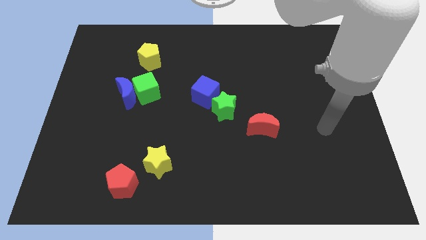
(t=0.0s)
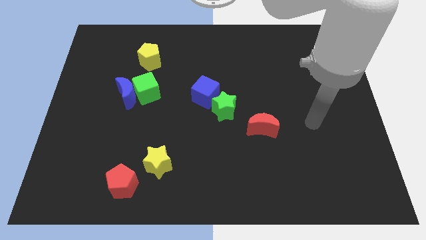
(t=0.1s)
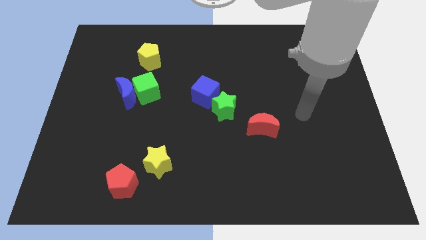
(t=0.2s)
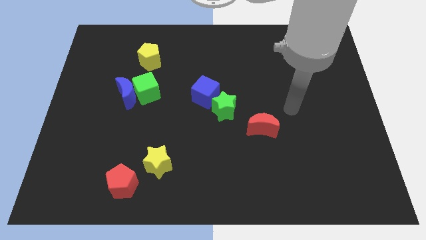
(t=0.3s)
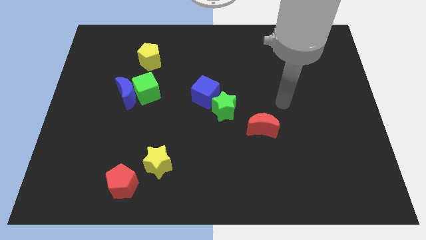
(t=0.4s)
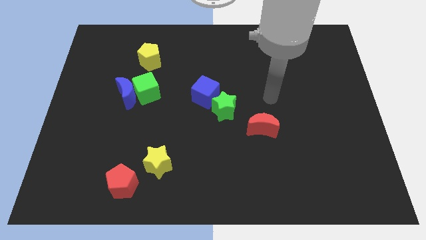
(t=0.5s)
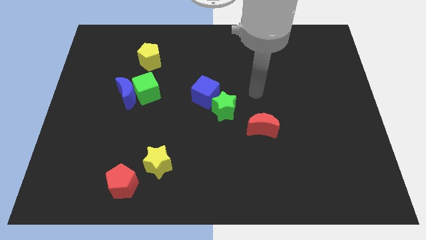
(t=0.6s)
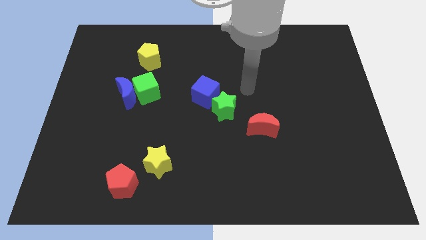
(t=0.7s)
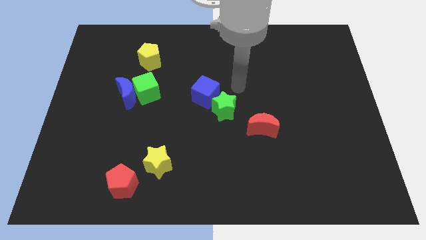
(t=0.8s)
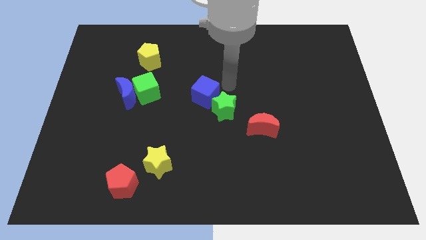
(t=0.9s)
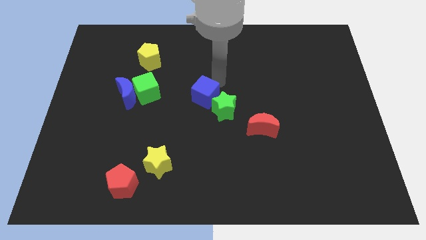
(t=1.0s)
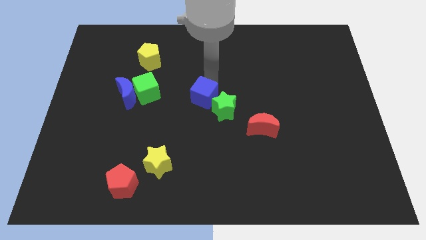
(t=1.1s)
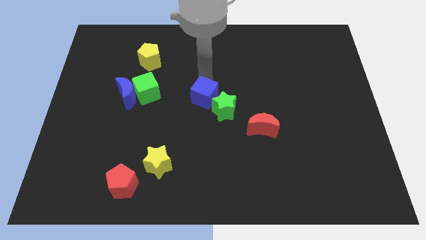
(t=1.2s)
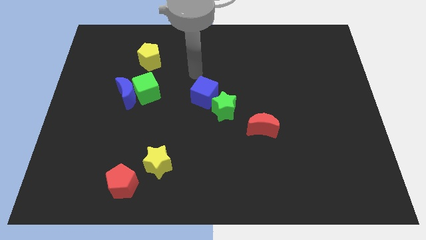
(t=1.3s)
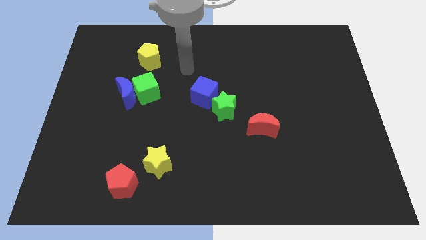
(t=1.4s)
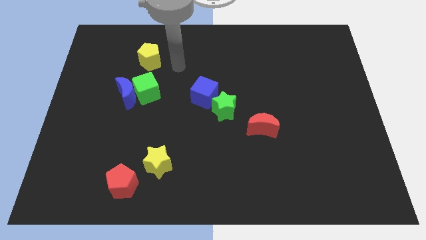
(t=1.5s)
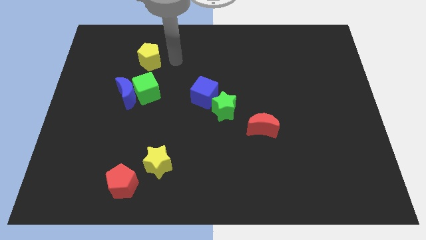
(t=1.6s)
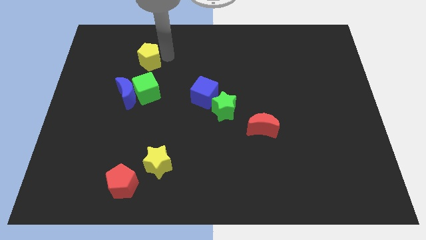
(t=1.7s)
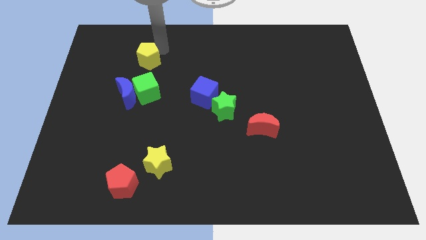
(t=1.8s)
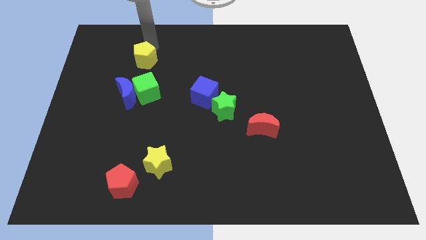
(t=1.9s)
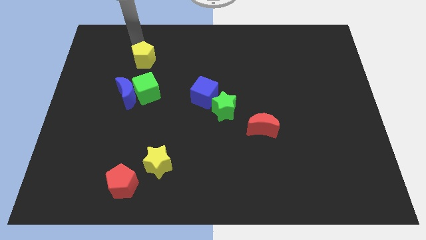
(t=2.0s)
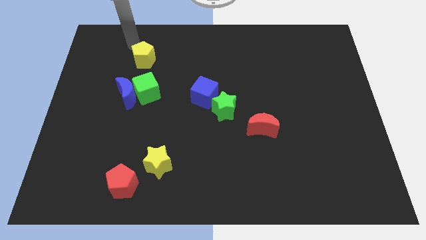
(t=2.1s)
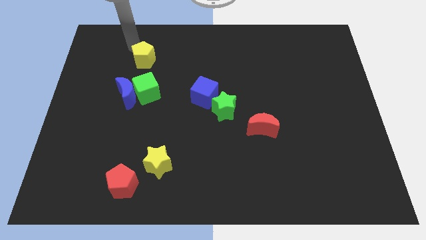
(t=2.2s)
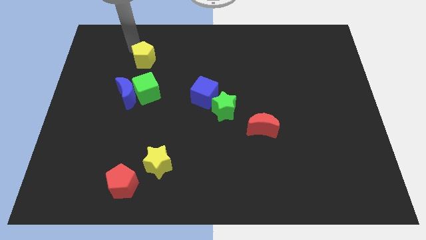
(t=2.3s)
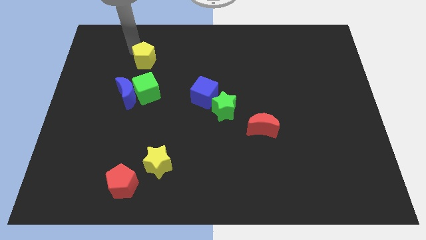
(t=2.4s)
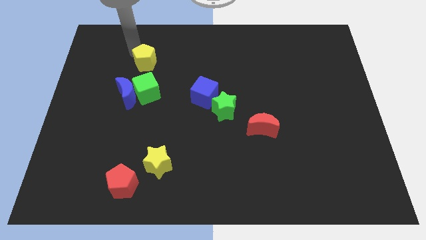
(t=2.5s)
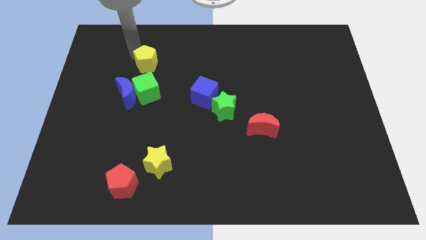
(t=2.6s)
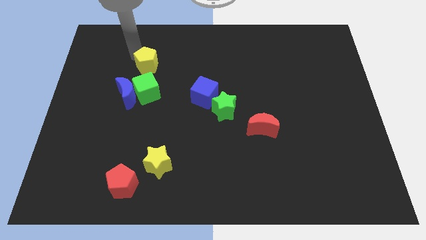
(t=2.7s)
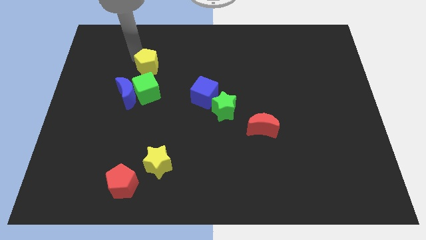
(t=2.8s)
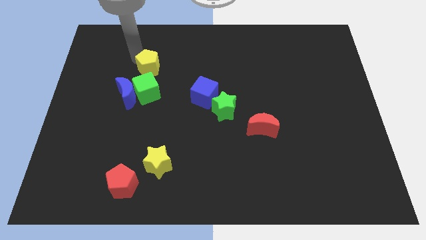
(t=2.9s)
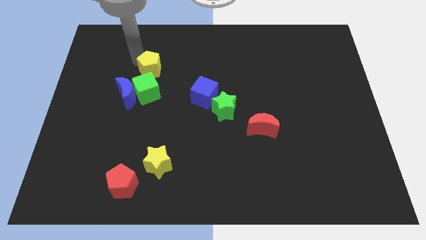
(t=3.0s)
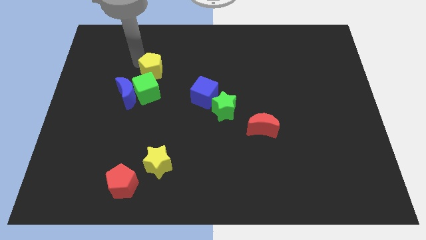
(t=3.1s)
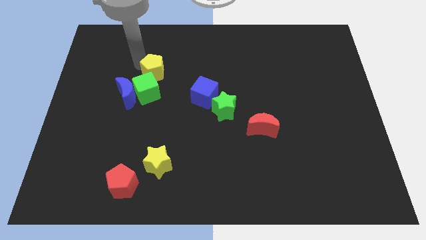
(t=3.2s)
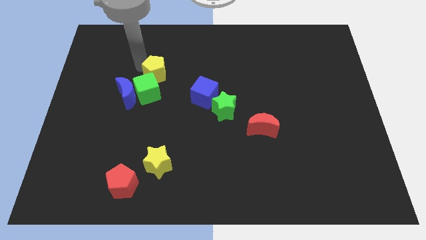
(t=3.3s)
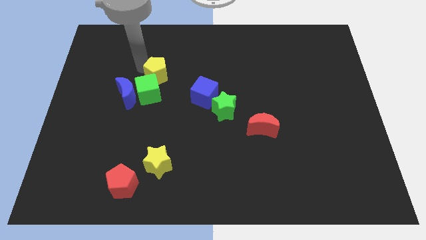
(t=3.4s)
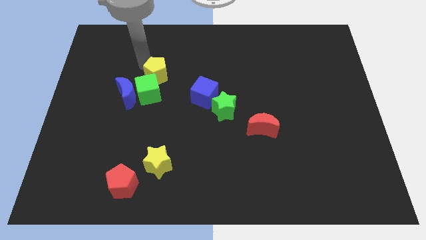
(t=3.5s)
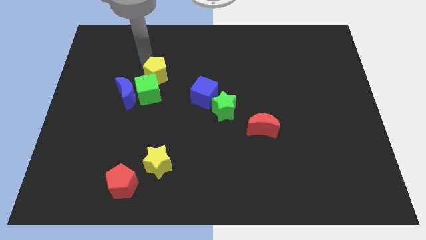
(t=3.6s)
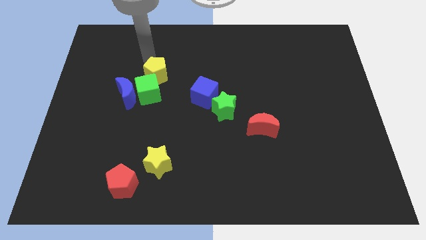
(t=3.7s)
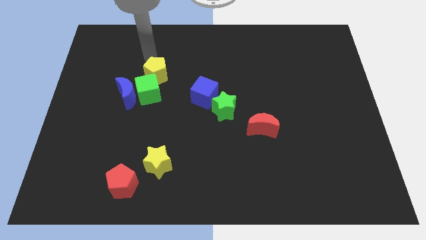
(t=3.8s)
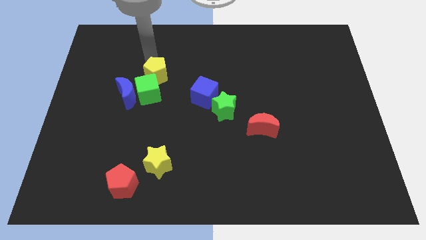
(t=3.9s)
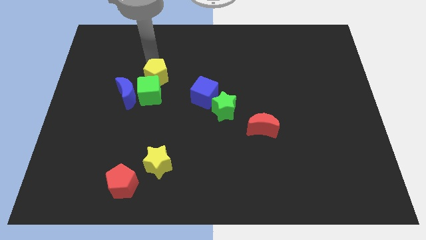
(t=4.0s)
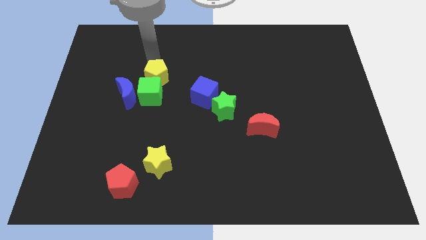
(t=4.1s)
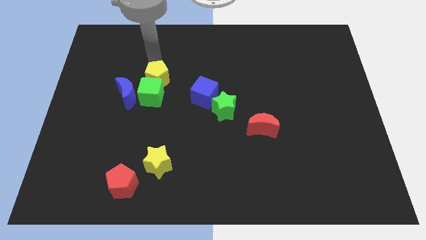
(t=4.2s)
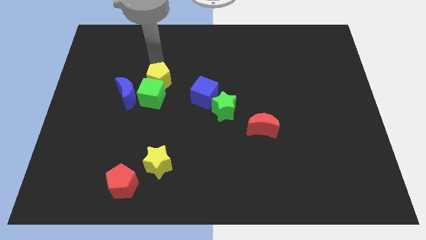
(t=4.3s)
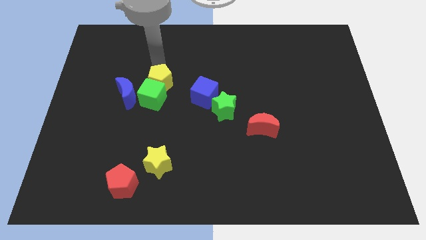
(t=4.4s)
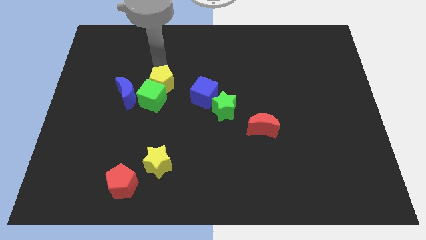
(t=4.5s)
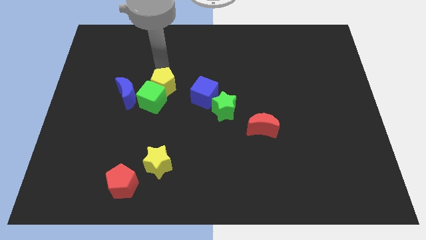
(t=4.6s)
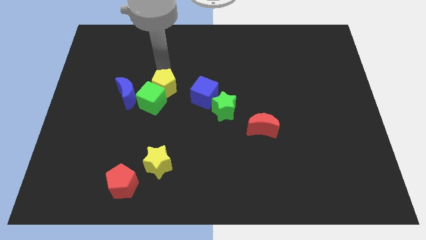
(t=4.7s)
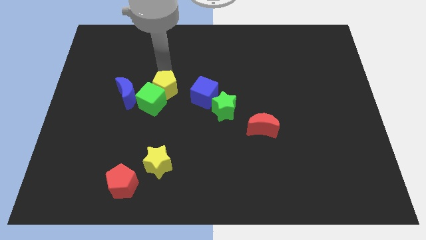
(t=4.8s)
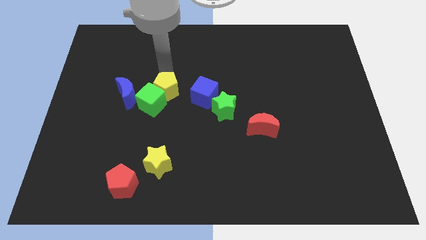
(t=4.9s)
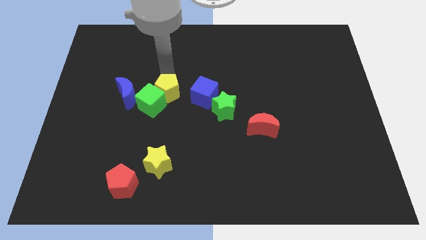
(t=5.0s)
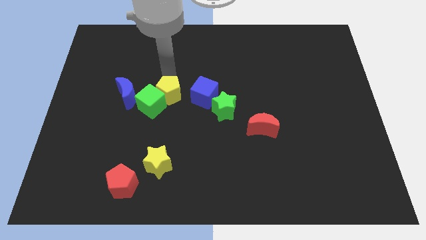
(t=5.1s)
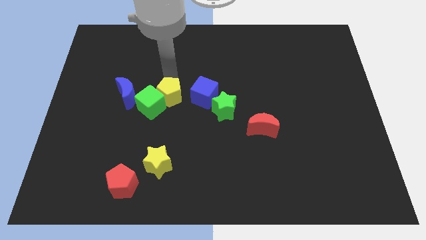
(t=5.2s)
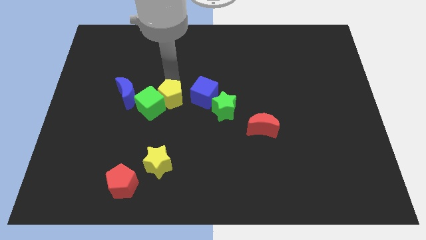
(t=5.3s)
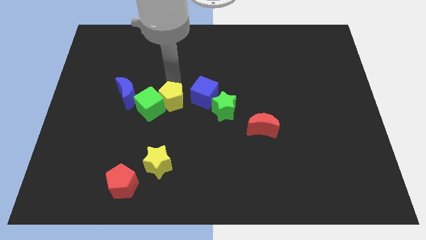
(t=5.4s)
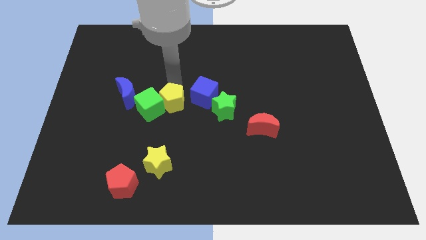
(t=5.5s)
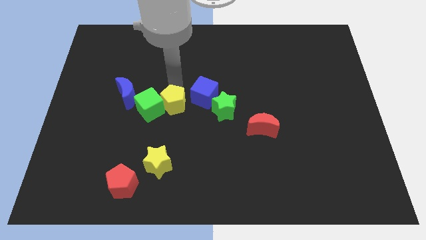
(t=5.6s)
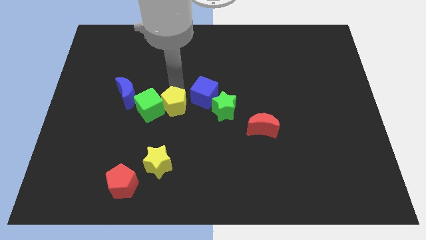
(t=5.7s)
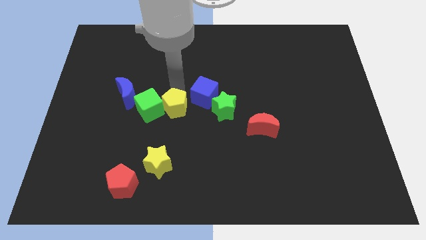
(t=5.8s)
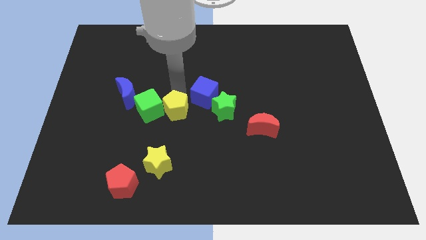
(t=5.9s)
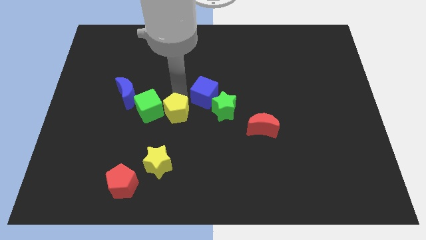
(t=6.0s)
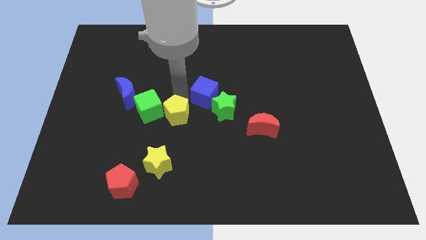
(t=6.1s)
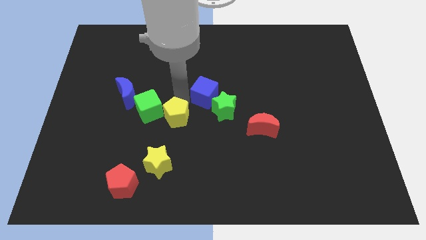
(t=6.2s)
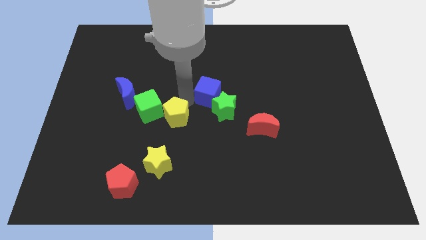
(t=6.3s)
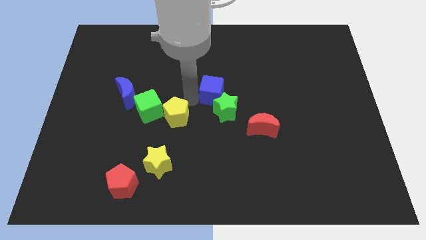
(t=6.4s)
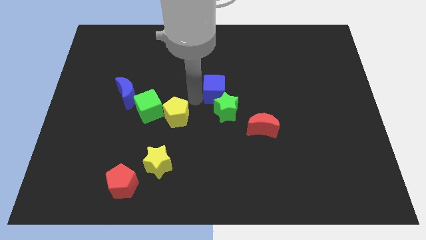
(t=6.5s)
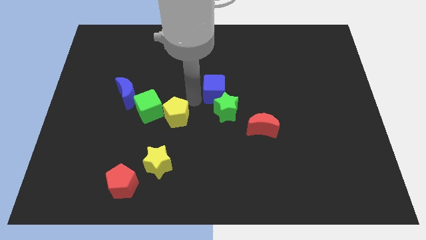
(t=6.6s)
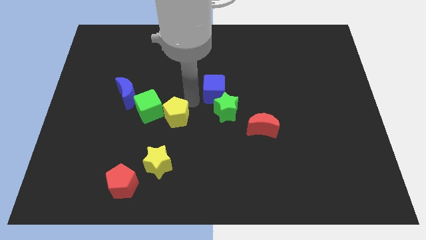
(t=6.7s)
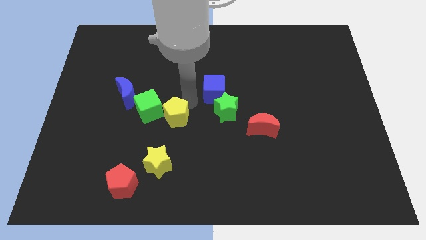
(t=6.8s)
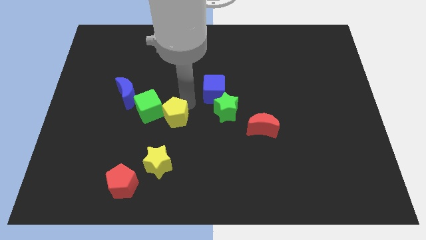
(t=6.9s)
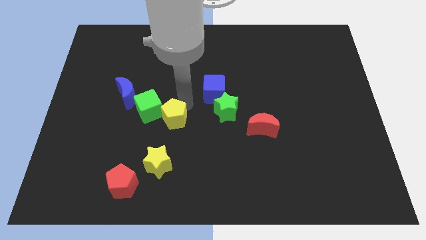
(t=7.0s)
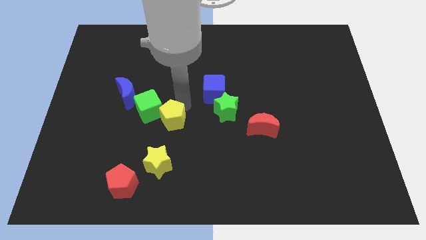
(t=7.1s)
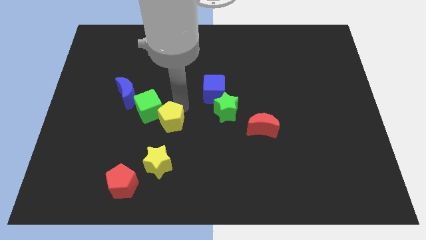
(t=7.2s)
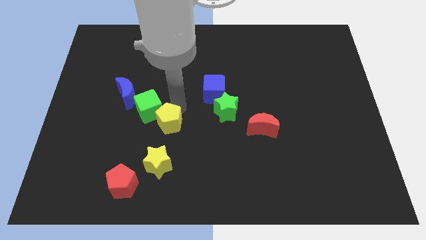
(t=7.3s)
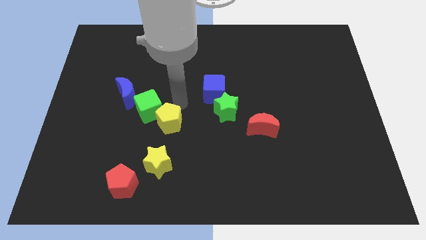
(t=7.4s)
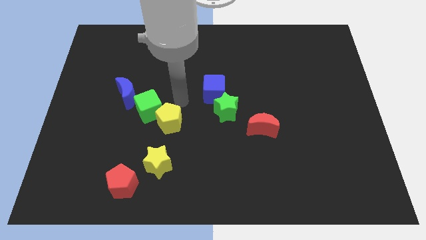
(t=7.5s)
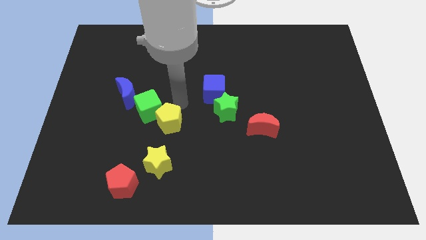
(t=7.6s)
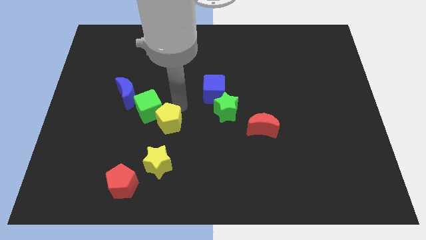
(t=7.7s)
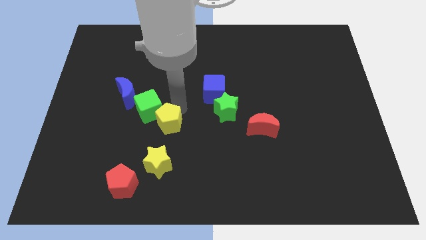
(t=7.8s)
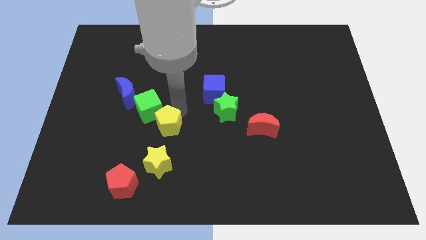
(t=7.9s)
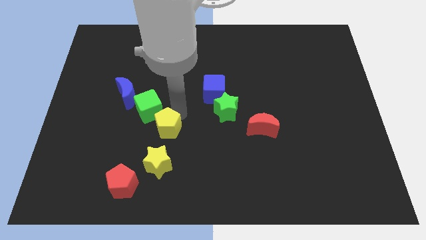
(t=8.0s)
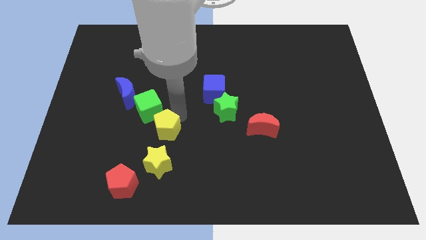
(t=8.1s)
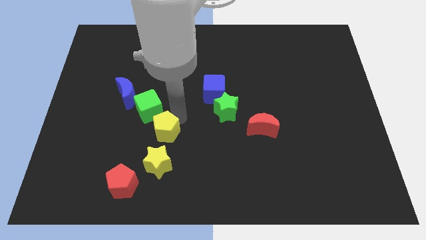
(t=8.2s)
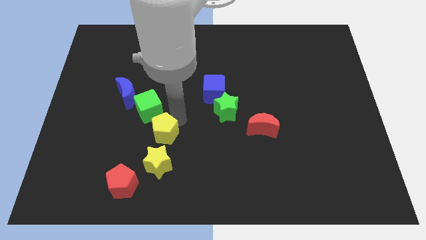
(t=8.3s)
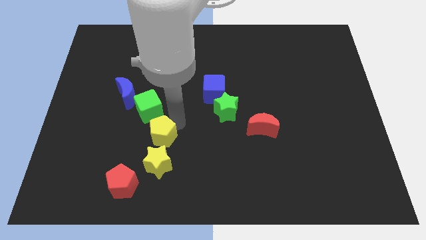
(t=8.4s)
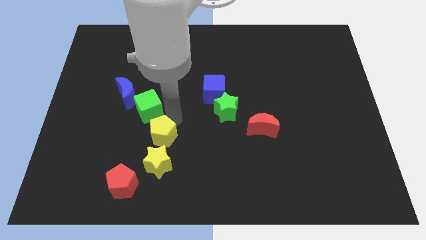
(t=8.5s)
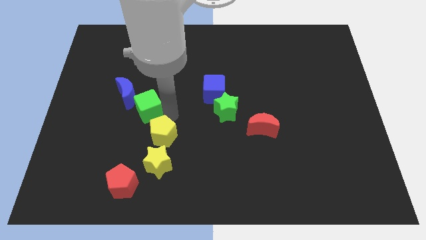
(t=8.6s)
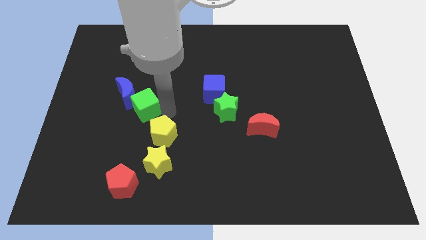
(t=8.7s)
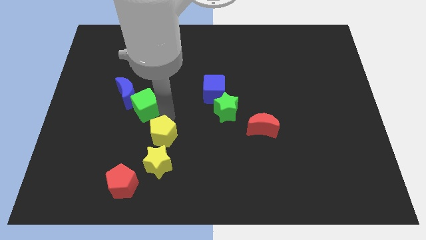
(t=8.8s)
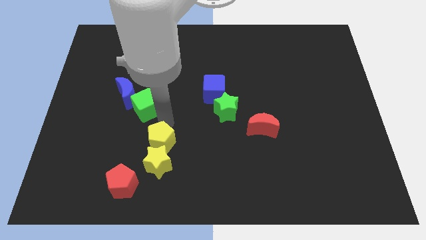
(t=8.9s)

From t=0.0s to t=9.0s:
push the yellow pentagon to the yellow star
